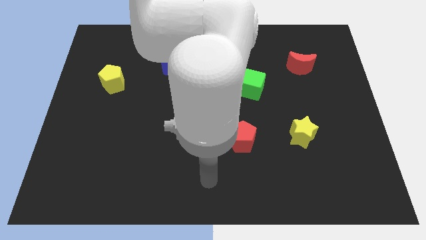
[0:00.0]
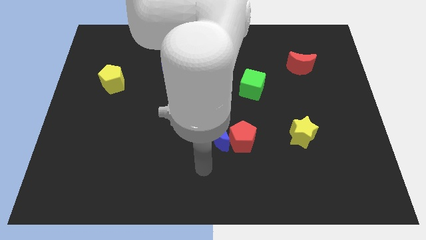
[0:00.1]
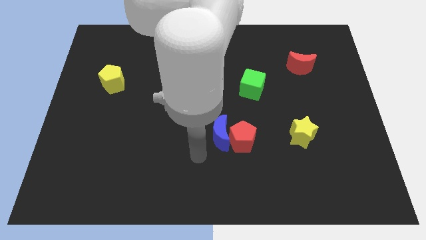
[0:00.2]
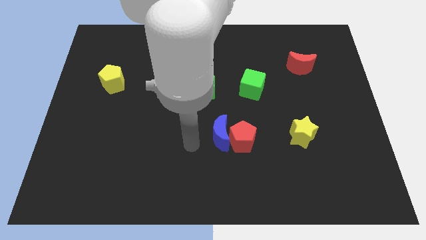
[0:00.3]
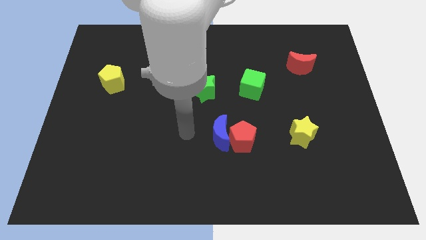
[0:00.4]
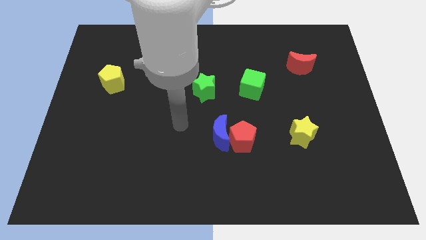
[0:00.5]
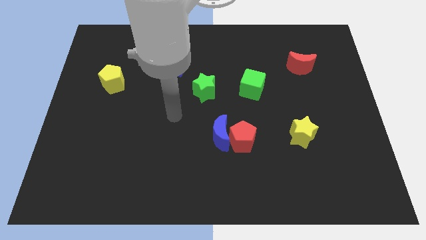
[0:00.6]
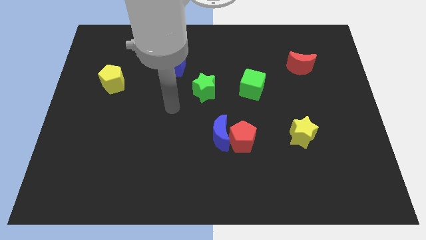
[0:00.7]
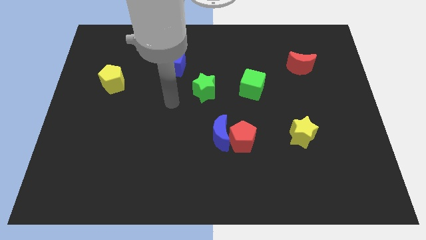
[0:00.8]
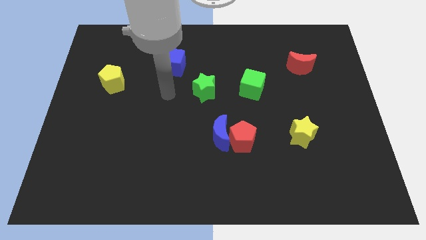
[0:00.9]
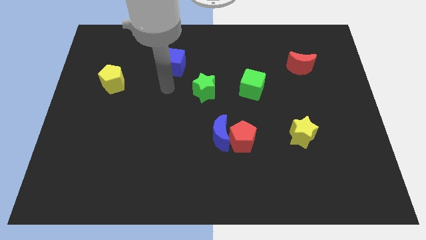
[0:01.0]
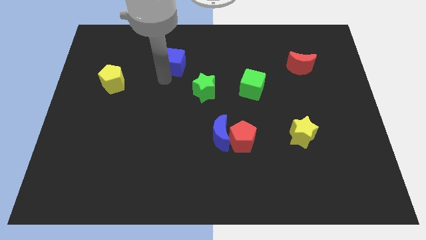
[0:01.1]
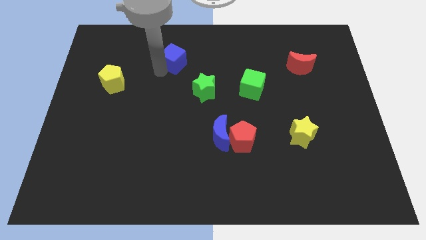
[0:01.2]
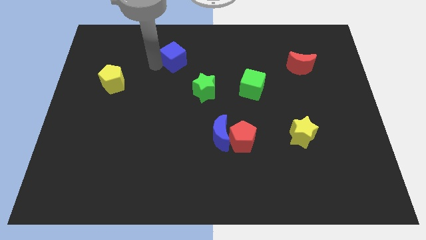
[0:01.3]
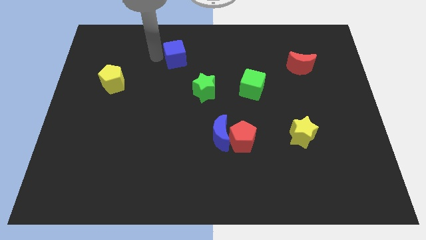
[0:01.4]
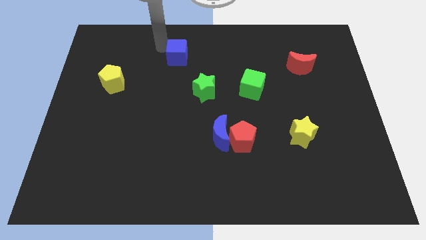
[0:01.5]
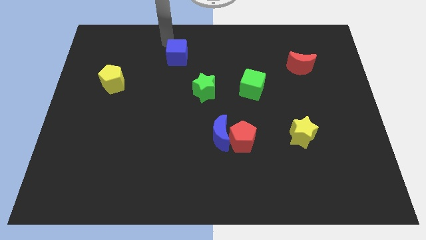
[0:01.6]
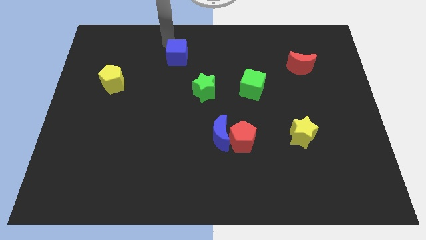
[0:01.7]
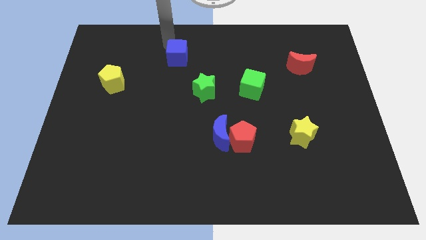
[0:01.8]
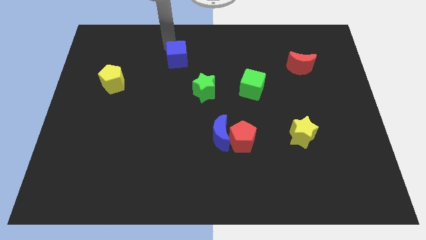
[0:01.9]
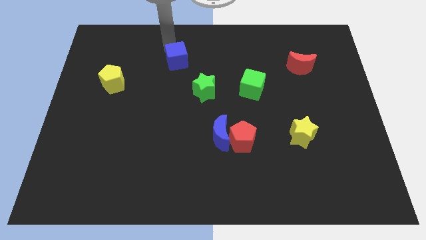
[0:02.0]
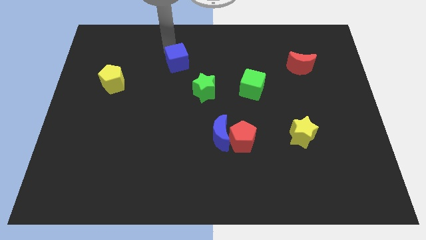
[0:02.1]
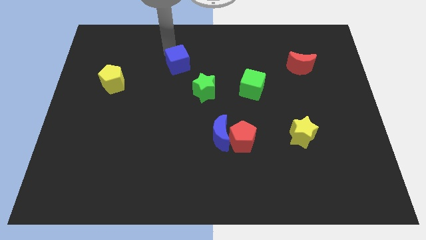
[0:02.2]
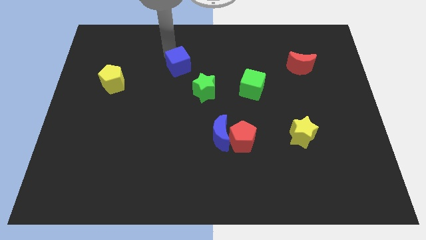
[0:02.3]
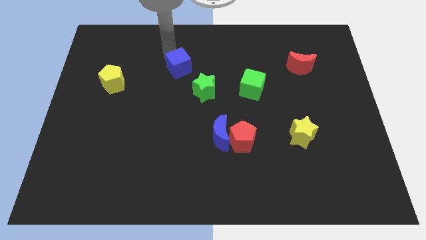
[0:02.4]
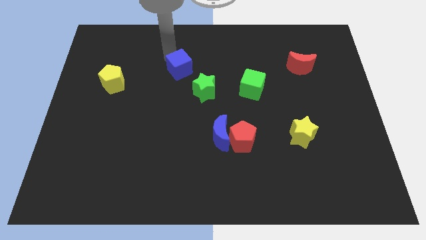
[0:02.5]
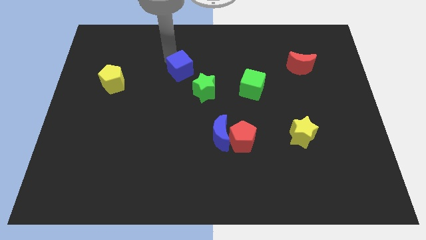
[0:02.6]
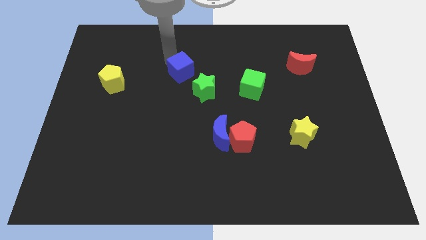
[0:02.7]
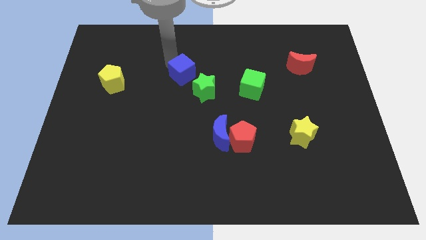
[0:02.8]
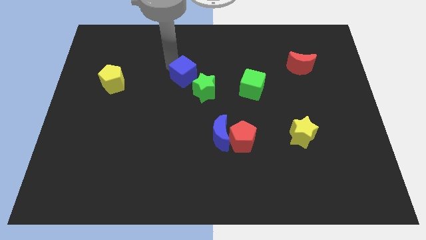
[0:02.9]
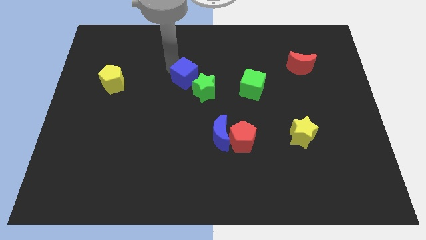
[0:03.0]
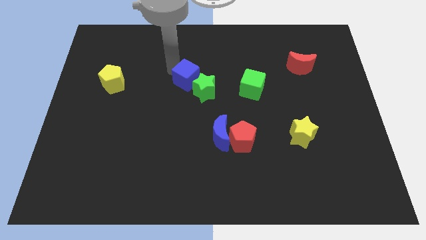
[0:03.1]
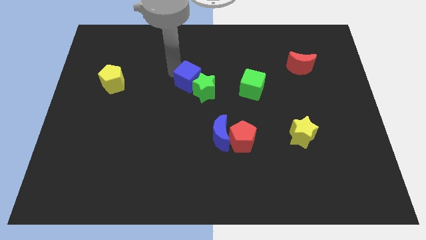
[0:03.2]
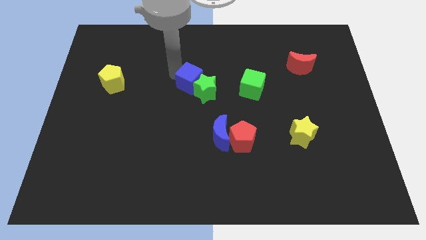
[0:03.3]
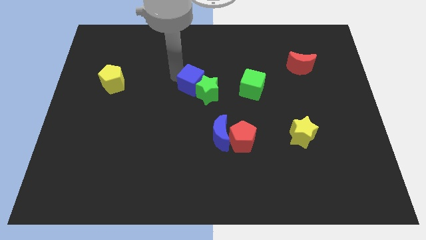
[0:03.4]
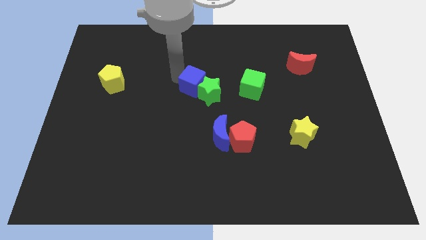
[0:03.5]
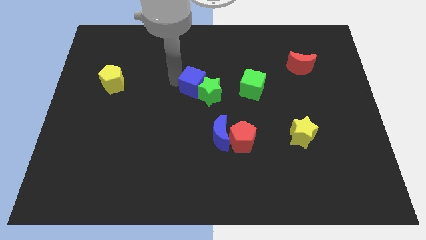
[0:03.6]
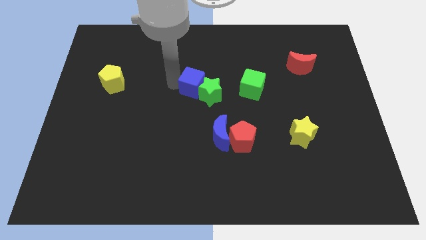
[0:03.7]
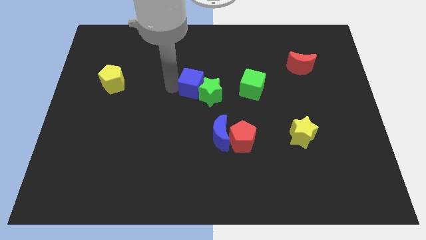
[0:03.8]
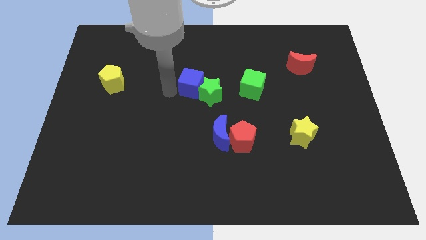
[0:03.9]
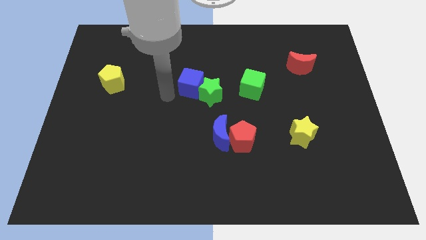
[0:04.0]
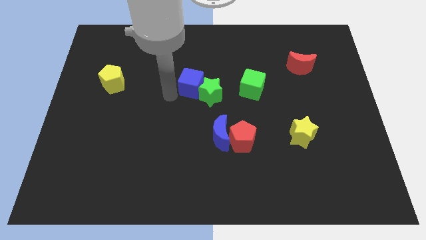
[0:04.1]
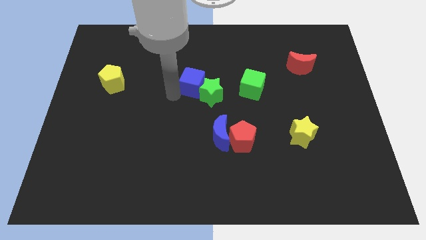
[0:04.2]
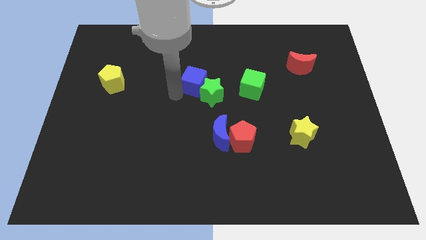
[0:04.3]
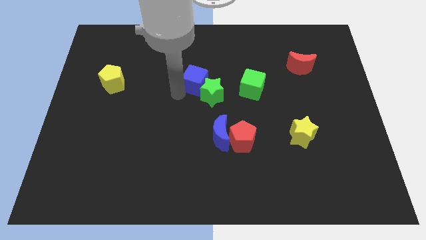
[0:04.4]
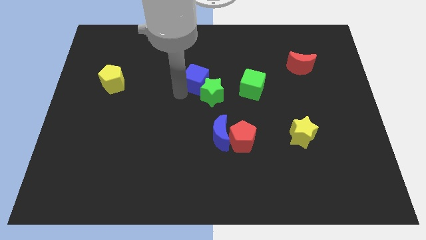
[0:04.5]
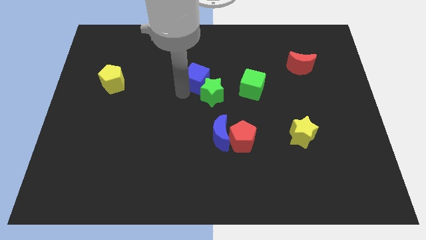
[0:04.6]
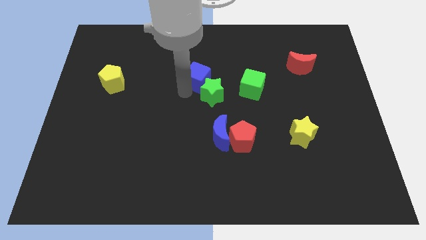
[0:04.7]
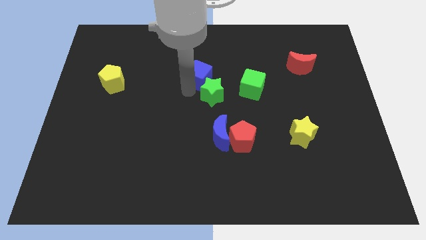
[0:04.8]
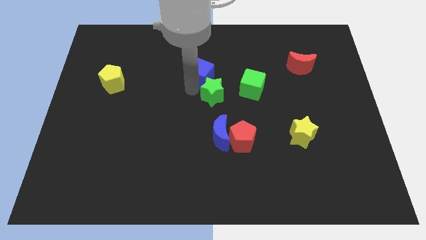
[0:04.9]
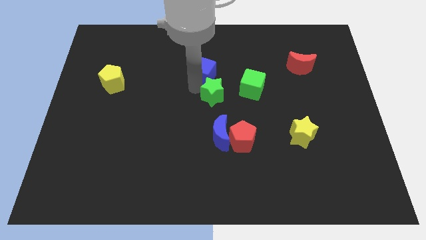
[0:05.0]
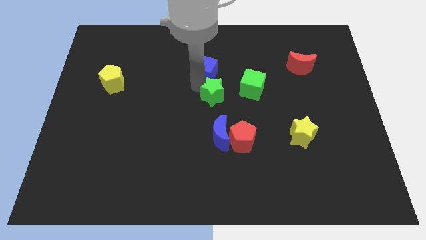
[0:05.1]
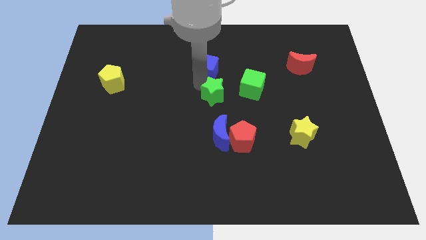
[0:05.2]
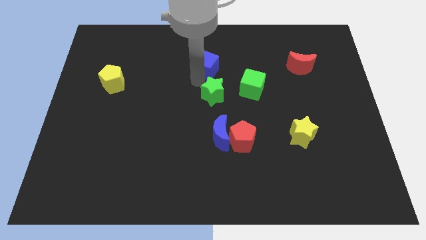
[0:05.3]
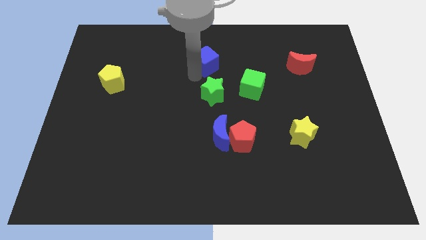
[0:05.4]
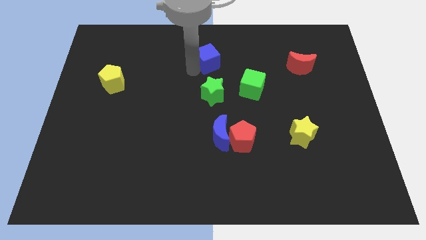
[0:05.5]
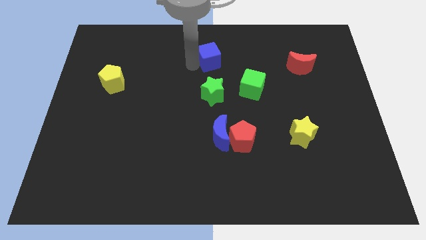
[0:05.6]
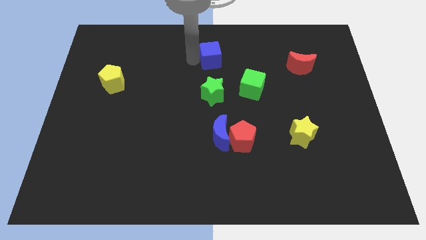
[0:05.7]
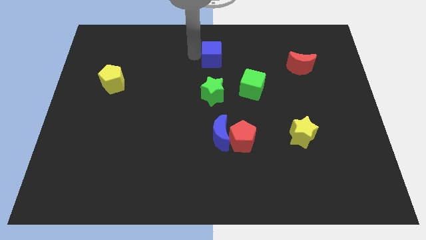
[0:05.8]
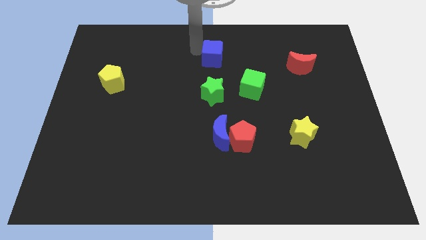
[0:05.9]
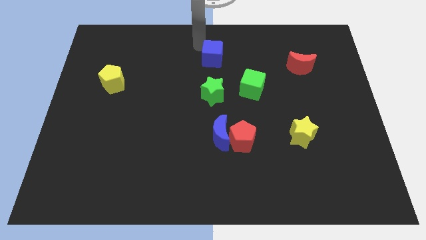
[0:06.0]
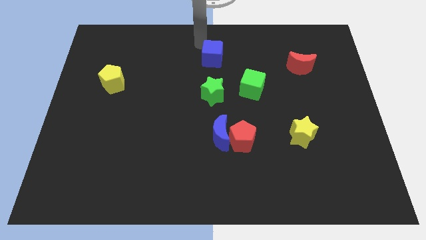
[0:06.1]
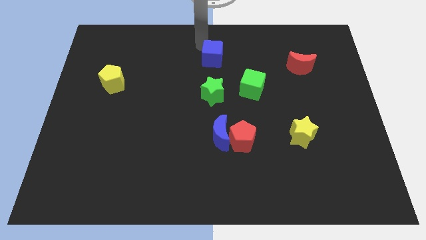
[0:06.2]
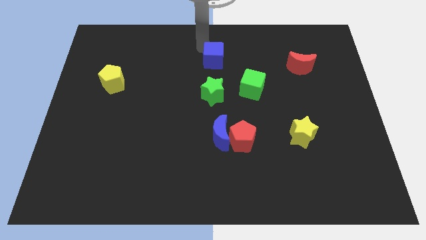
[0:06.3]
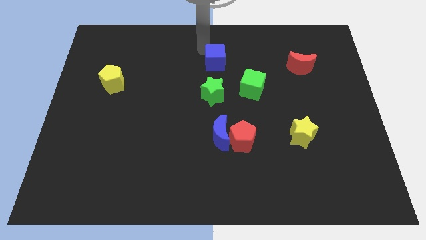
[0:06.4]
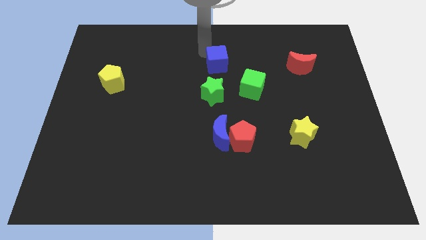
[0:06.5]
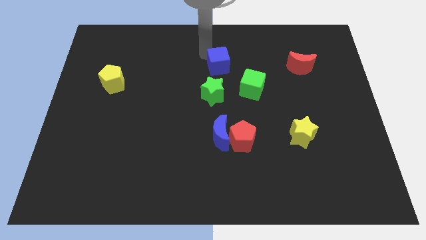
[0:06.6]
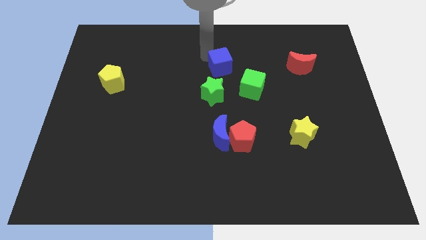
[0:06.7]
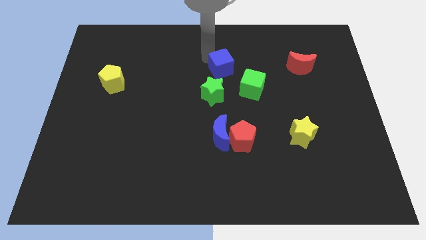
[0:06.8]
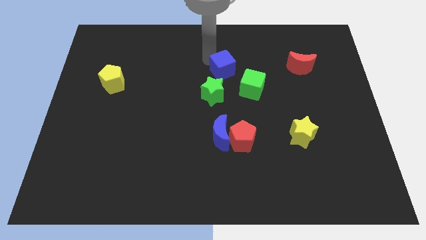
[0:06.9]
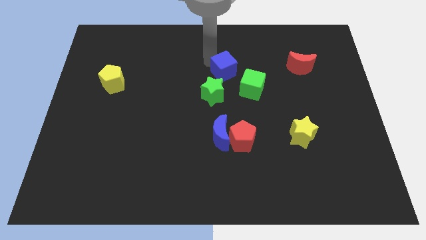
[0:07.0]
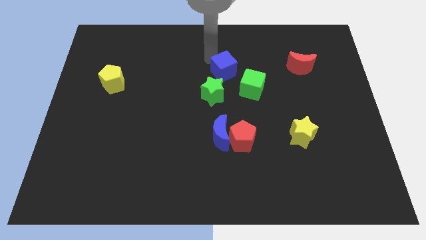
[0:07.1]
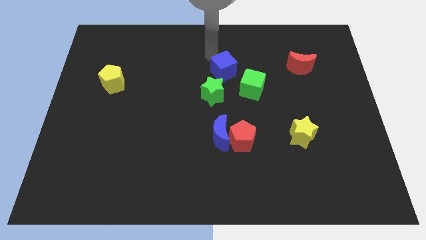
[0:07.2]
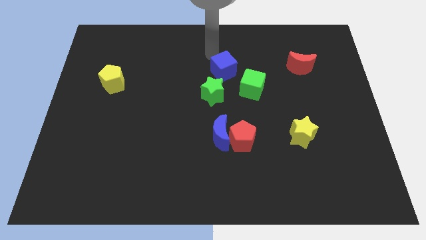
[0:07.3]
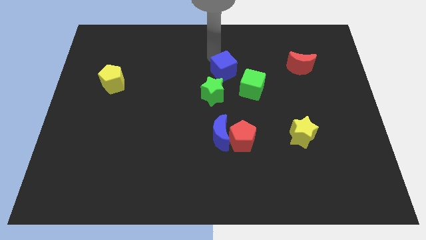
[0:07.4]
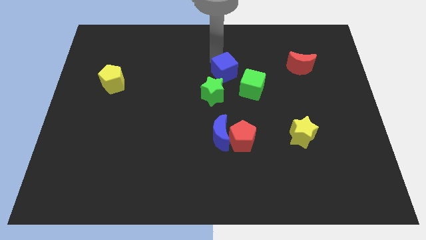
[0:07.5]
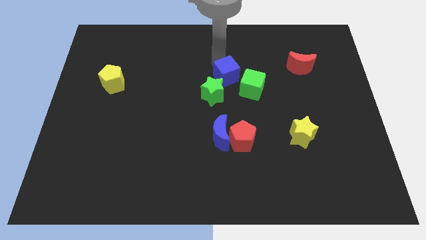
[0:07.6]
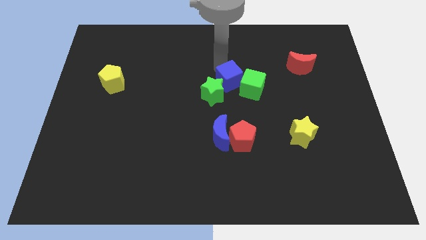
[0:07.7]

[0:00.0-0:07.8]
put the blue cube to the green cube
